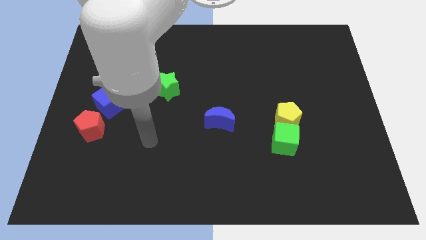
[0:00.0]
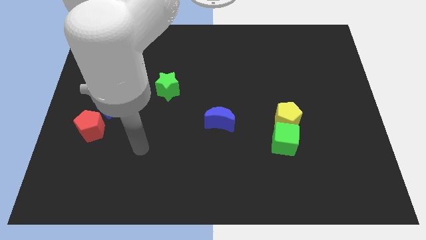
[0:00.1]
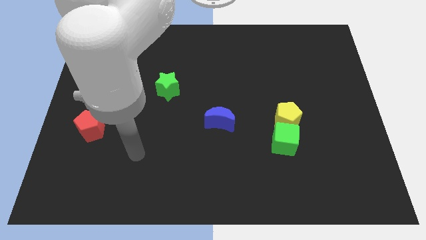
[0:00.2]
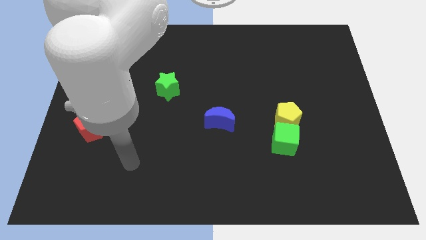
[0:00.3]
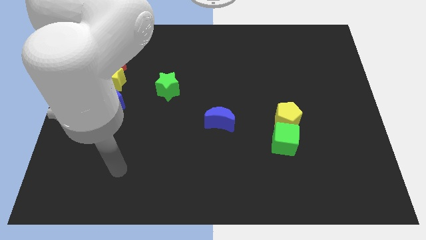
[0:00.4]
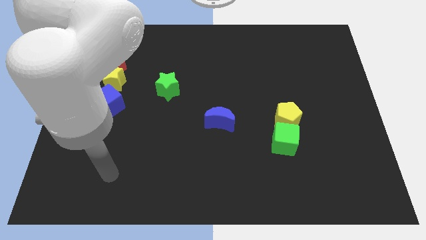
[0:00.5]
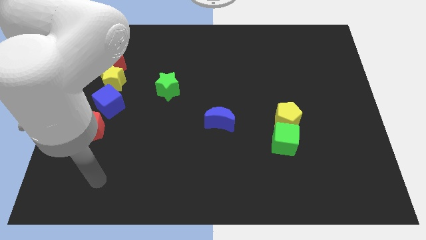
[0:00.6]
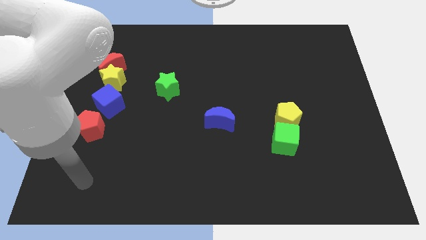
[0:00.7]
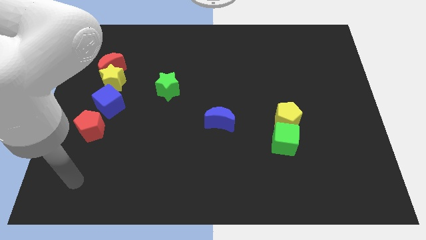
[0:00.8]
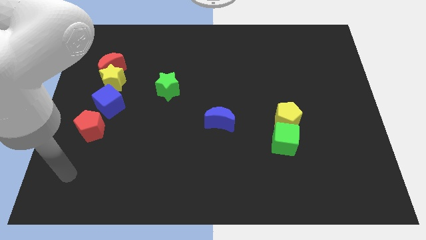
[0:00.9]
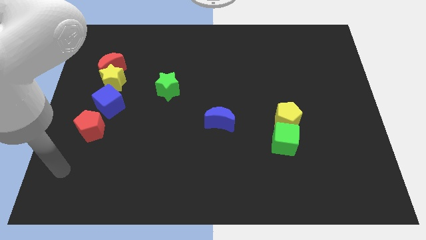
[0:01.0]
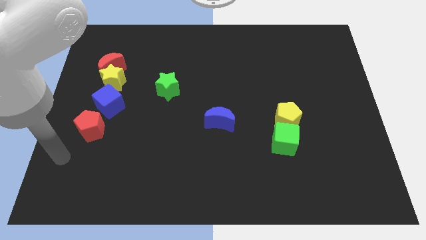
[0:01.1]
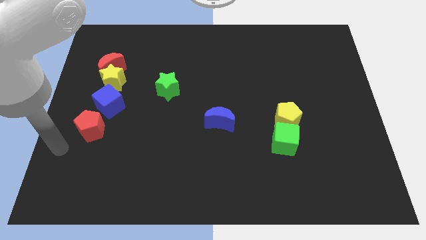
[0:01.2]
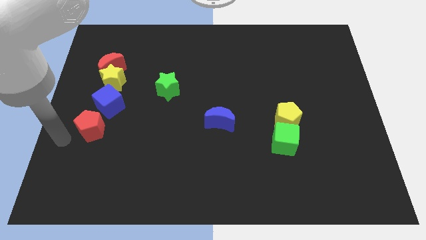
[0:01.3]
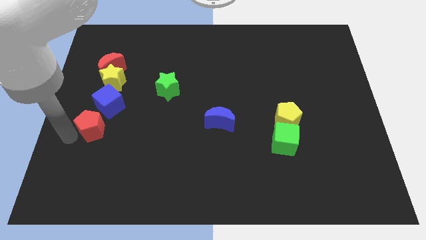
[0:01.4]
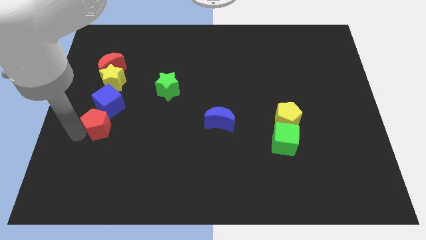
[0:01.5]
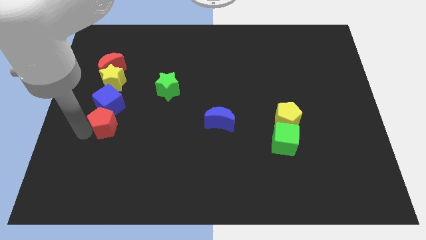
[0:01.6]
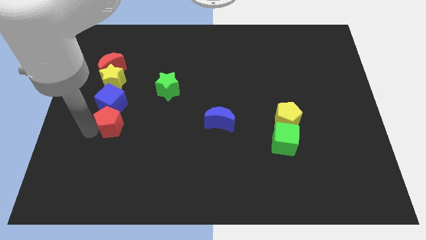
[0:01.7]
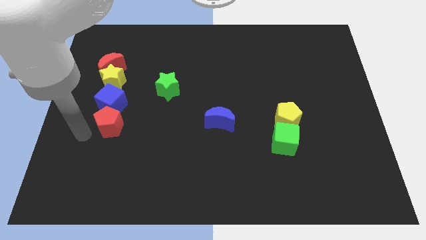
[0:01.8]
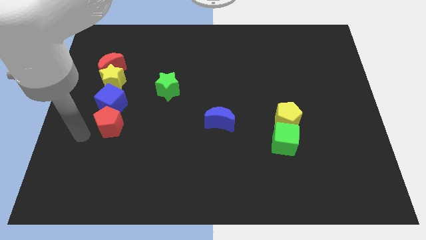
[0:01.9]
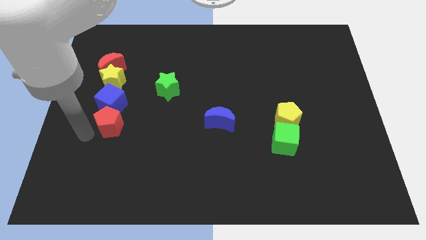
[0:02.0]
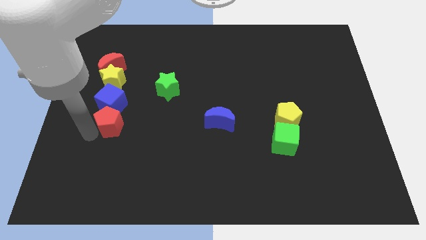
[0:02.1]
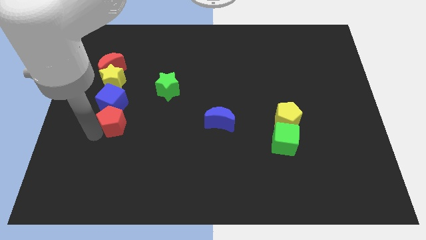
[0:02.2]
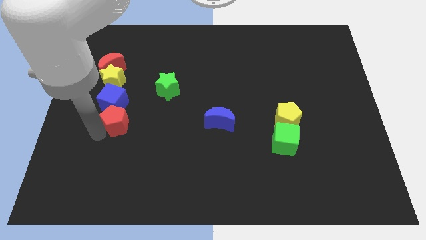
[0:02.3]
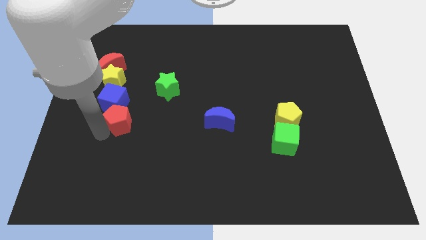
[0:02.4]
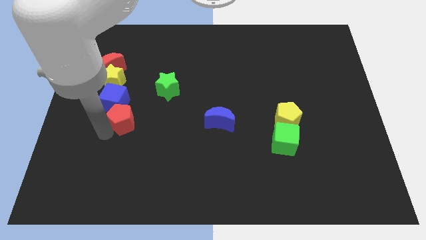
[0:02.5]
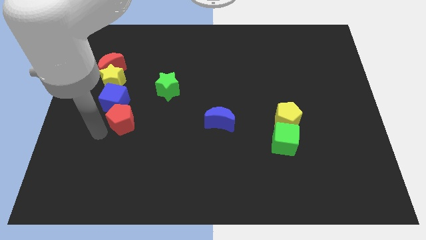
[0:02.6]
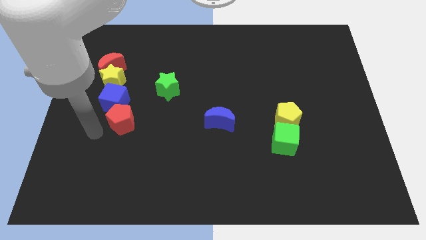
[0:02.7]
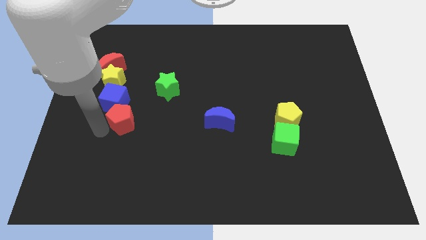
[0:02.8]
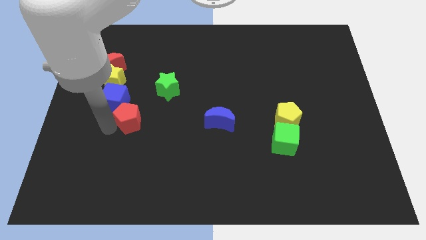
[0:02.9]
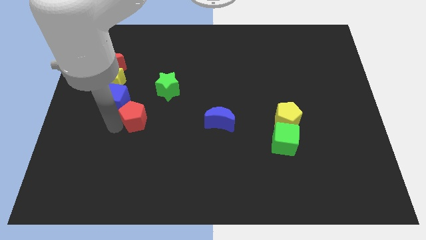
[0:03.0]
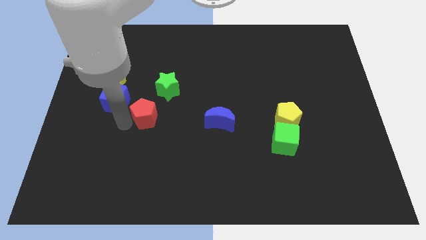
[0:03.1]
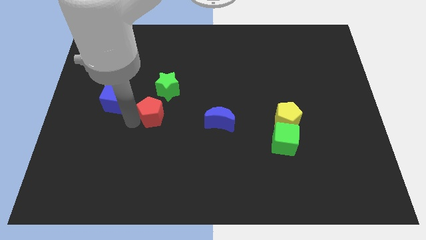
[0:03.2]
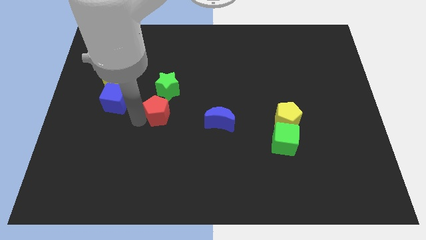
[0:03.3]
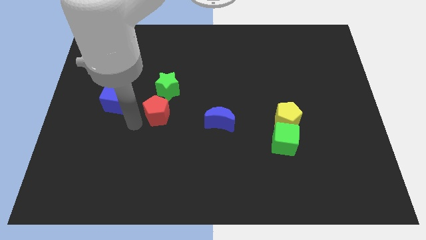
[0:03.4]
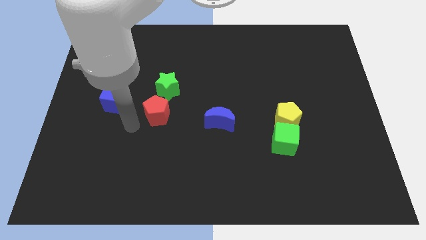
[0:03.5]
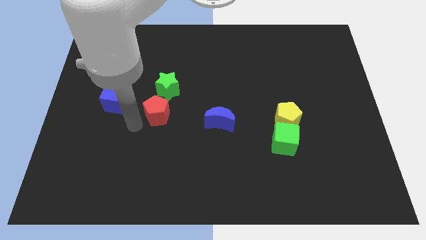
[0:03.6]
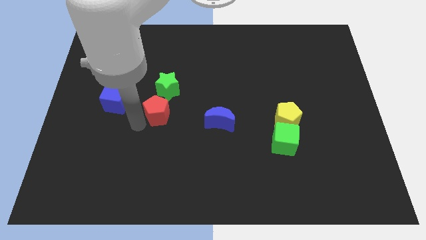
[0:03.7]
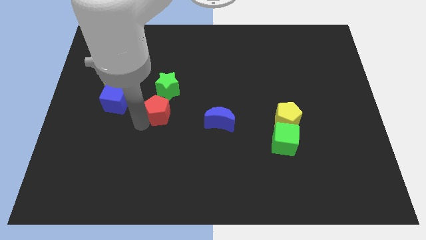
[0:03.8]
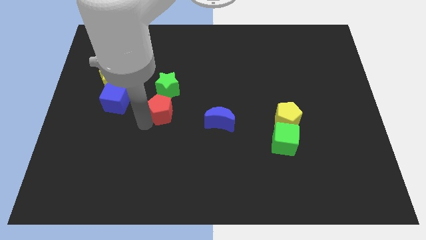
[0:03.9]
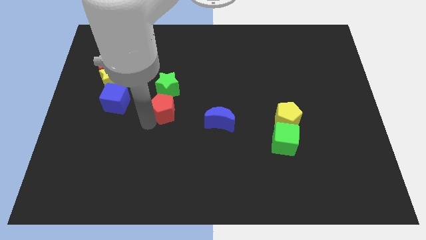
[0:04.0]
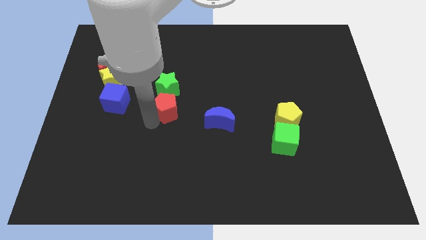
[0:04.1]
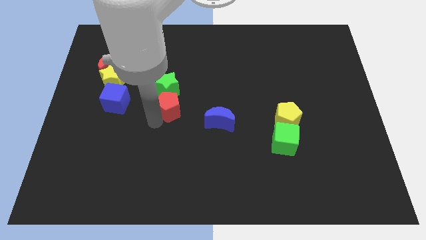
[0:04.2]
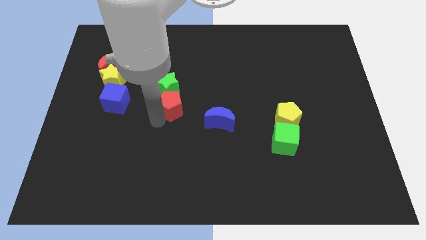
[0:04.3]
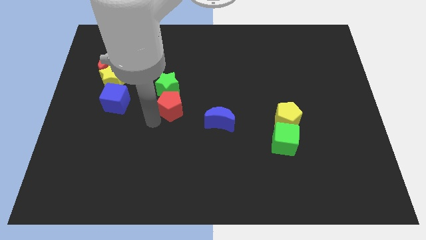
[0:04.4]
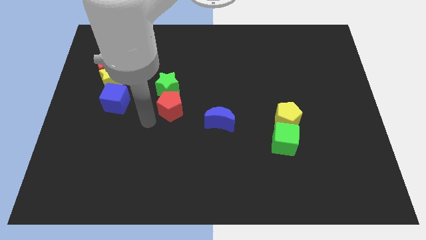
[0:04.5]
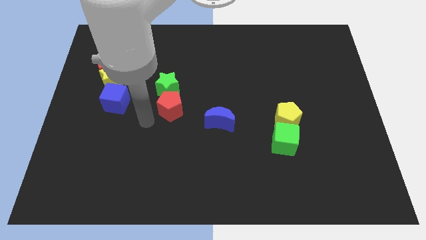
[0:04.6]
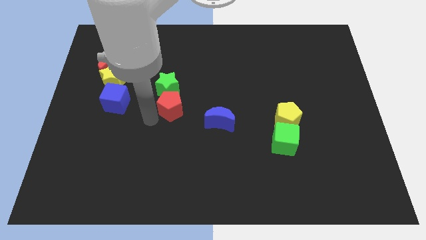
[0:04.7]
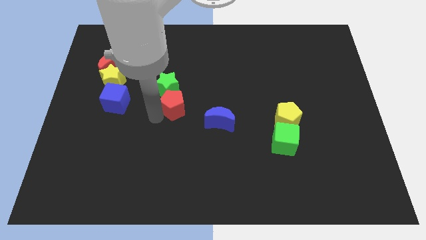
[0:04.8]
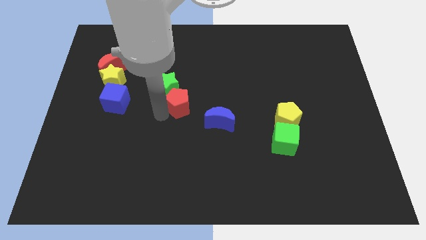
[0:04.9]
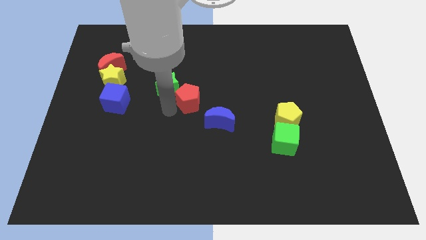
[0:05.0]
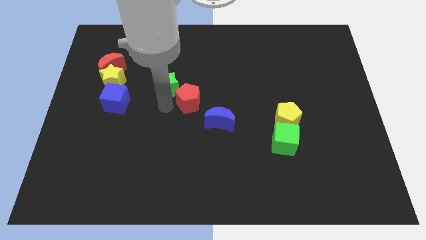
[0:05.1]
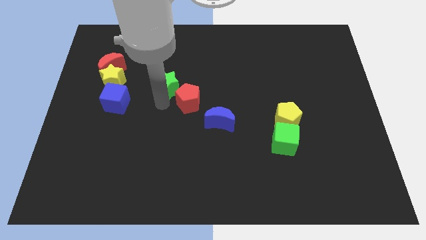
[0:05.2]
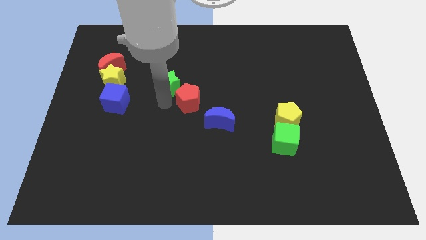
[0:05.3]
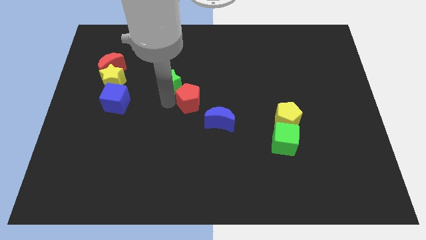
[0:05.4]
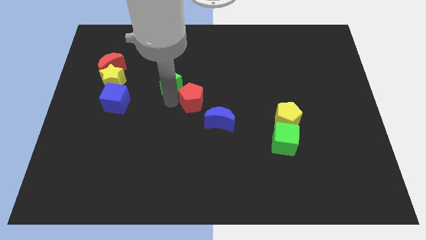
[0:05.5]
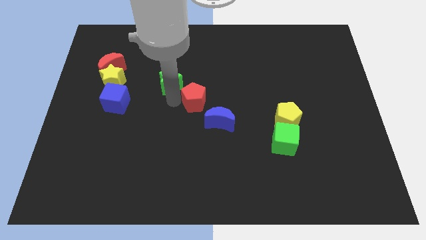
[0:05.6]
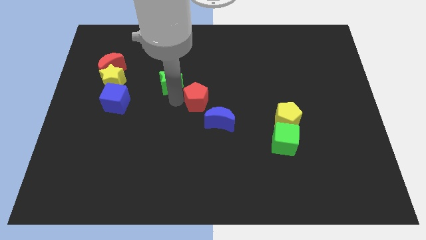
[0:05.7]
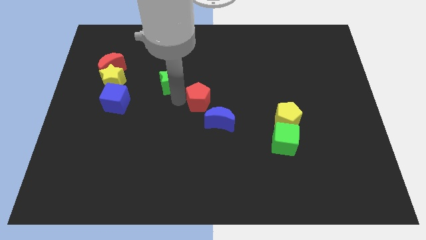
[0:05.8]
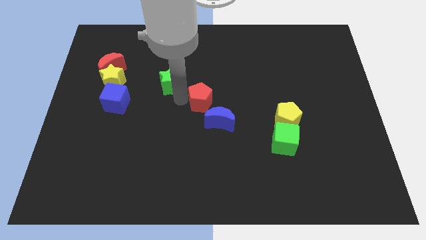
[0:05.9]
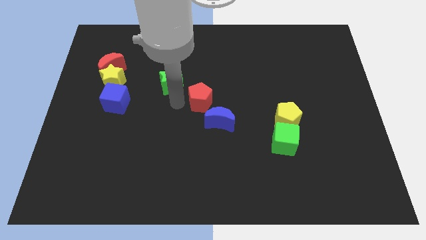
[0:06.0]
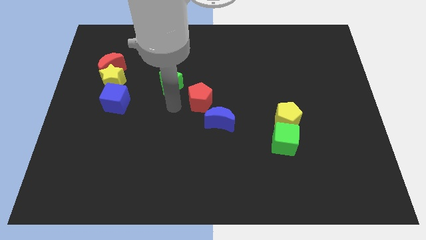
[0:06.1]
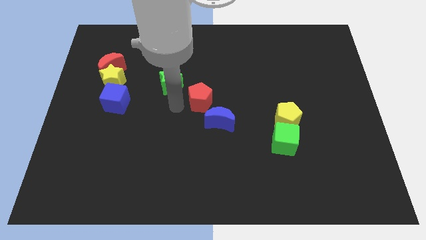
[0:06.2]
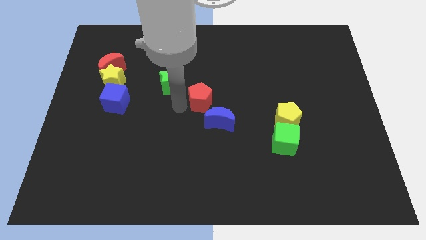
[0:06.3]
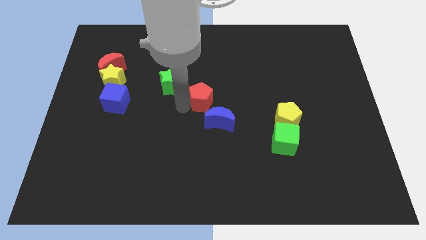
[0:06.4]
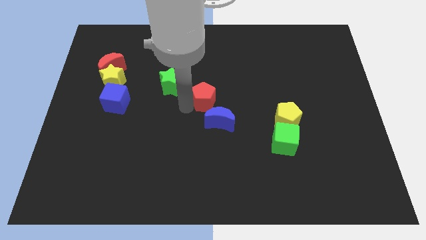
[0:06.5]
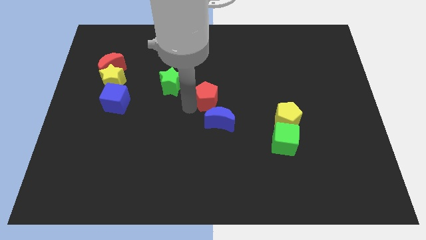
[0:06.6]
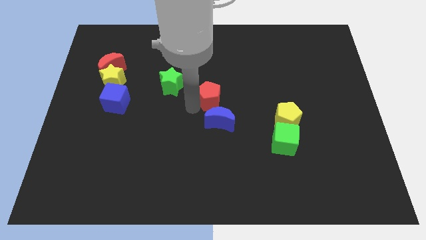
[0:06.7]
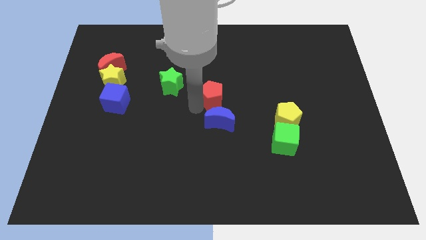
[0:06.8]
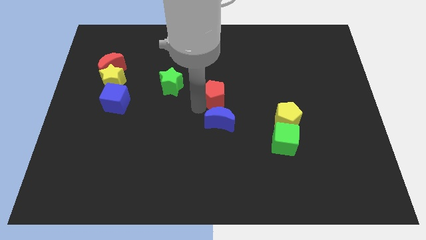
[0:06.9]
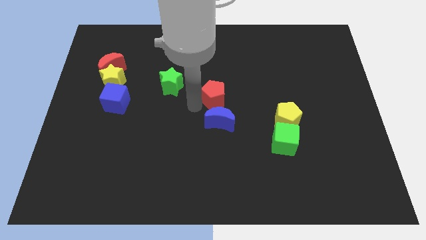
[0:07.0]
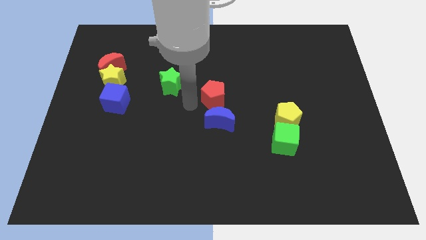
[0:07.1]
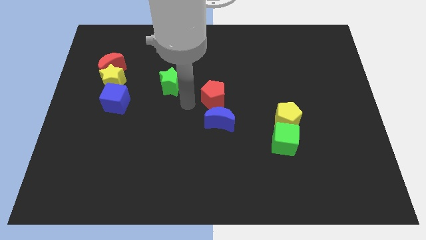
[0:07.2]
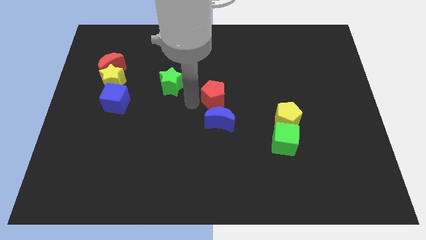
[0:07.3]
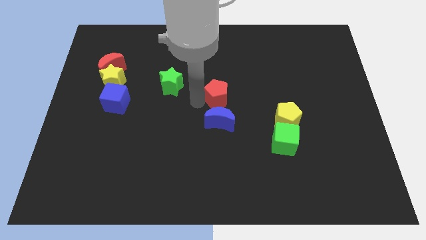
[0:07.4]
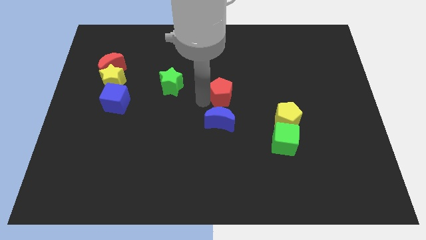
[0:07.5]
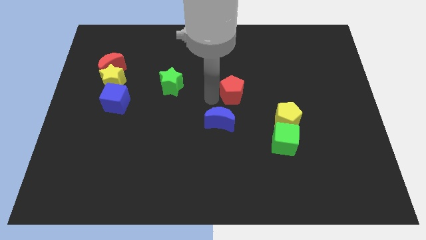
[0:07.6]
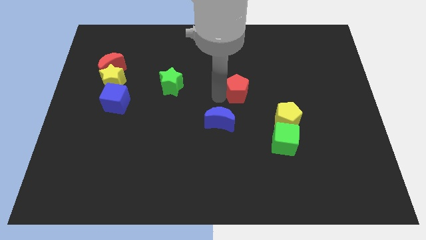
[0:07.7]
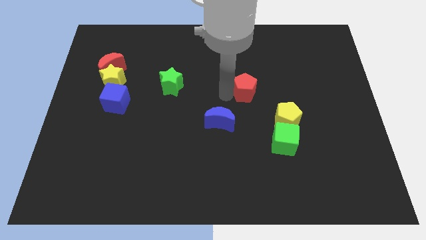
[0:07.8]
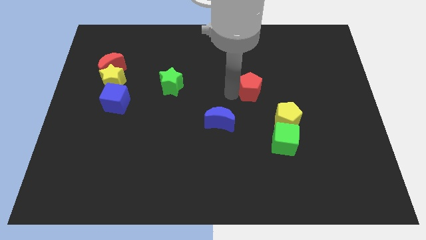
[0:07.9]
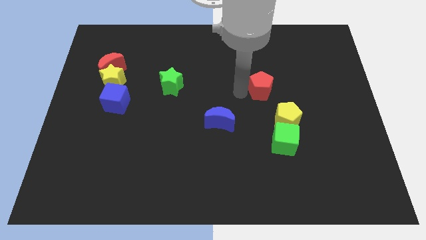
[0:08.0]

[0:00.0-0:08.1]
move the red pentagon to the top of the yellow pentagon
